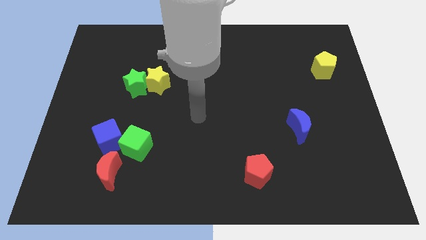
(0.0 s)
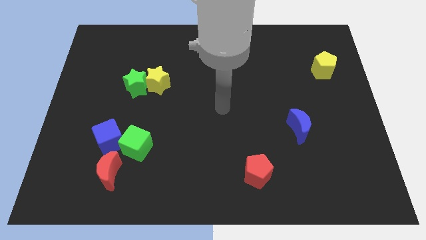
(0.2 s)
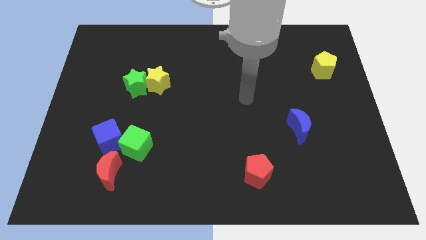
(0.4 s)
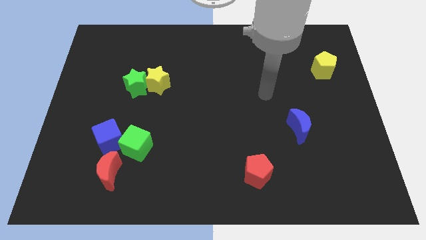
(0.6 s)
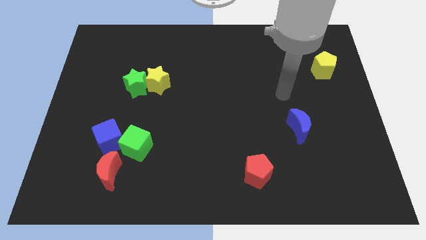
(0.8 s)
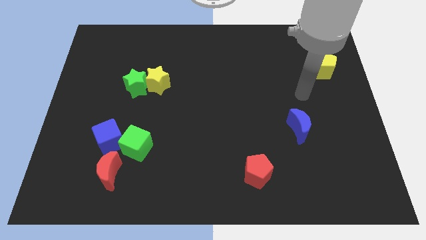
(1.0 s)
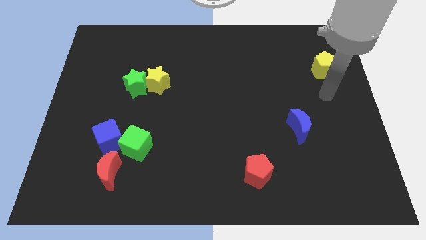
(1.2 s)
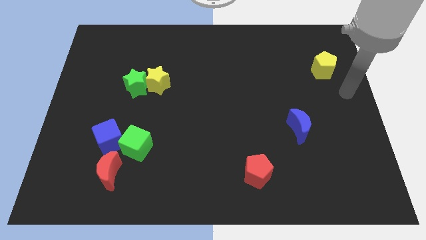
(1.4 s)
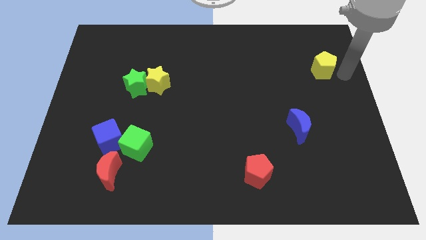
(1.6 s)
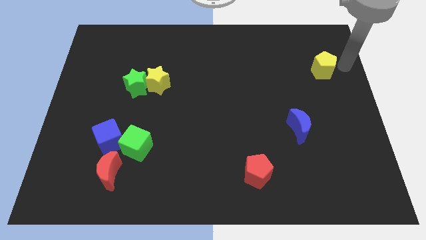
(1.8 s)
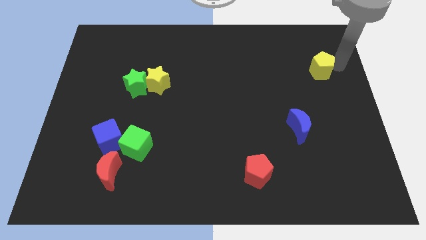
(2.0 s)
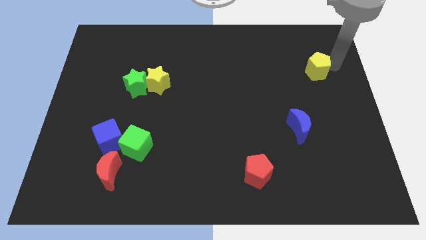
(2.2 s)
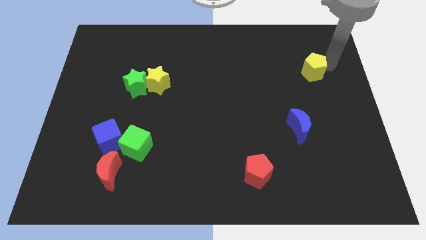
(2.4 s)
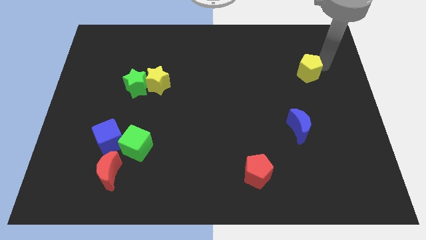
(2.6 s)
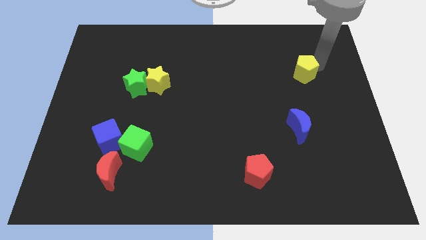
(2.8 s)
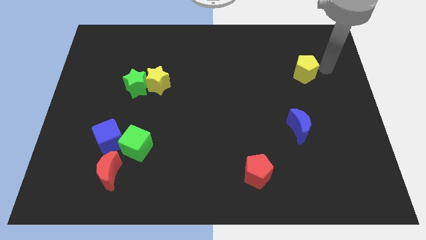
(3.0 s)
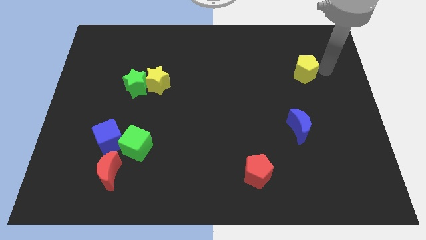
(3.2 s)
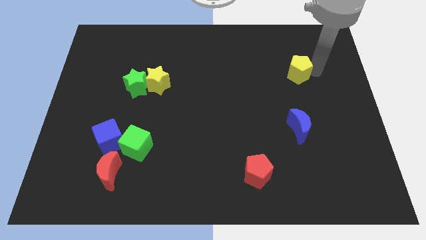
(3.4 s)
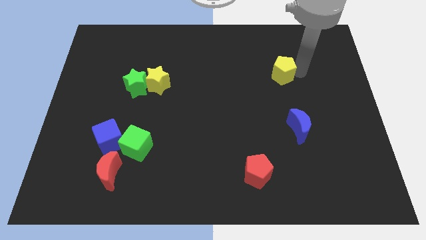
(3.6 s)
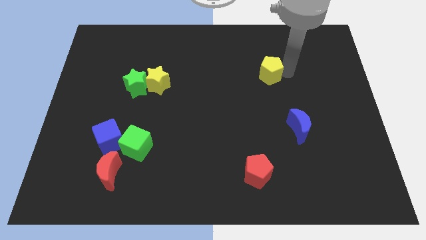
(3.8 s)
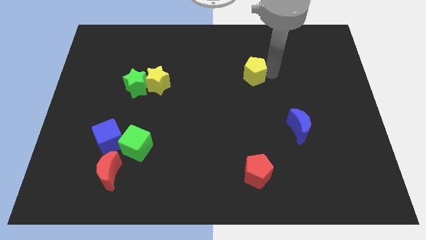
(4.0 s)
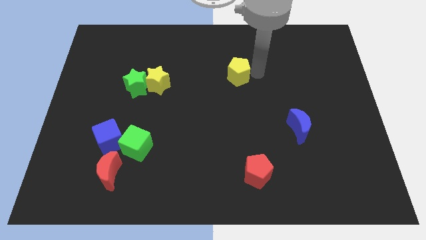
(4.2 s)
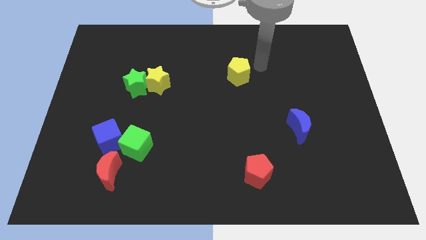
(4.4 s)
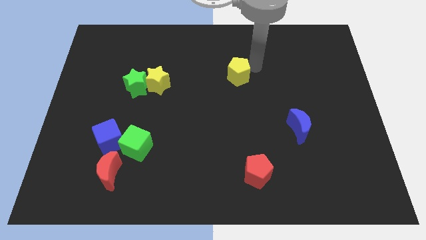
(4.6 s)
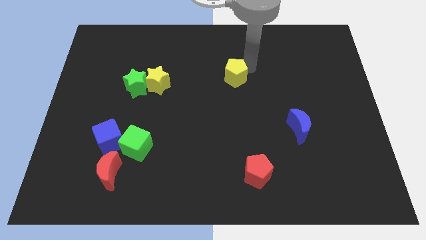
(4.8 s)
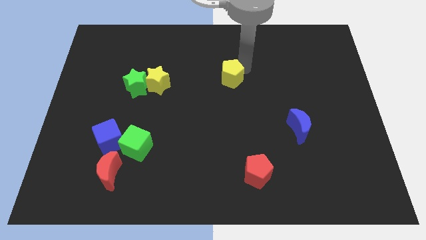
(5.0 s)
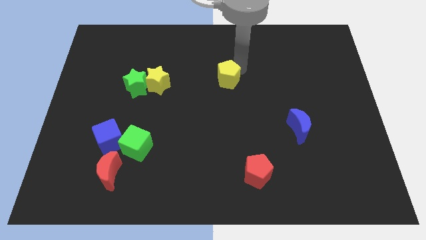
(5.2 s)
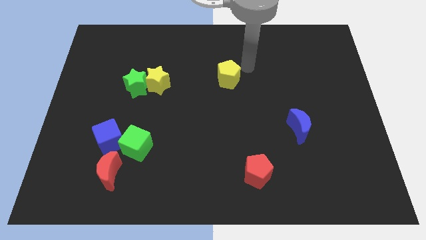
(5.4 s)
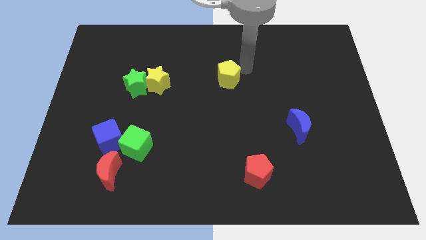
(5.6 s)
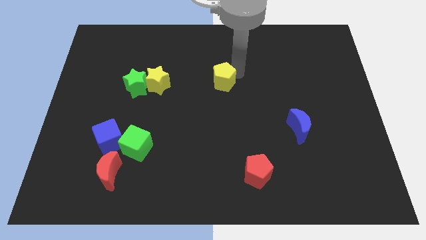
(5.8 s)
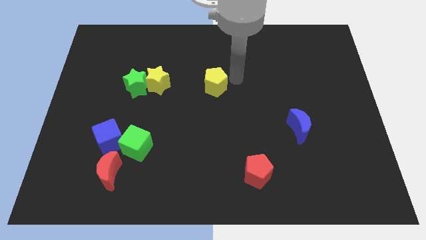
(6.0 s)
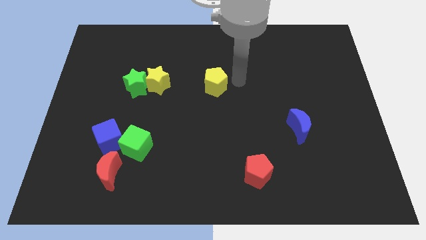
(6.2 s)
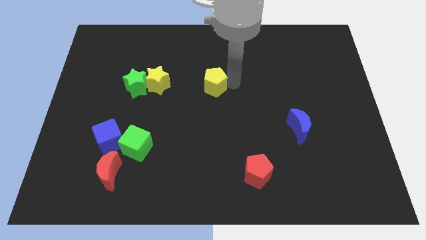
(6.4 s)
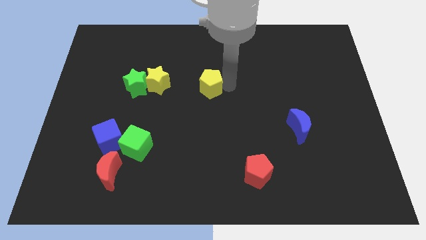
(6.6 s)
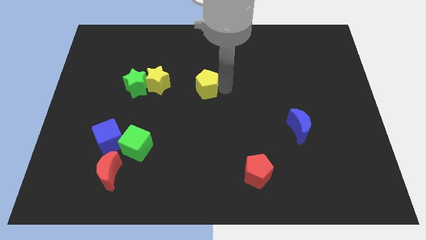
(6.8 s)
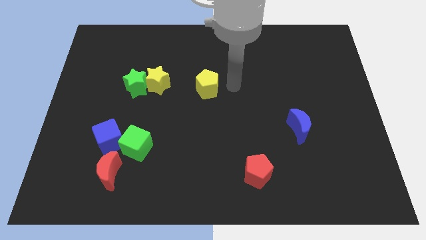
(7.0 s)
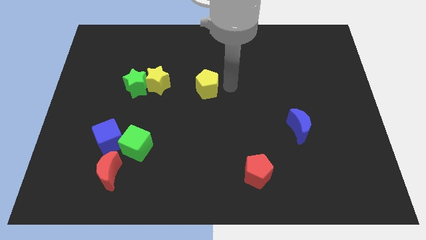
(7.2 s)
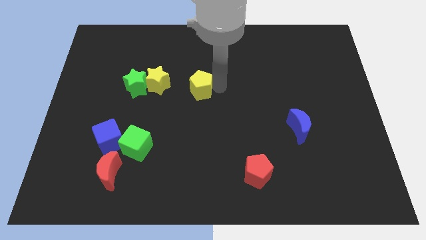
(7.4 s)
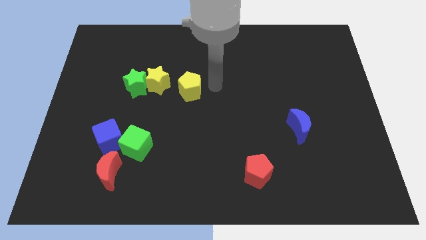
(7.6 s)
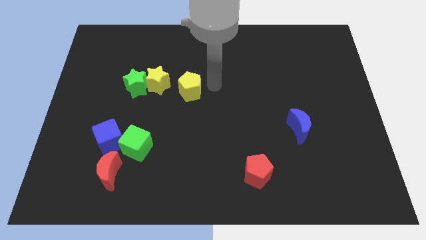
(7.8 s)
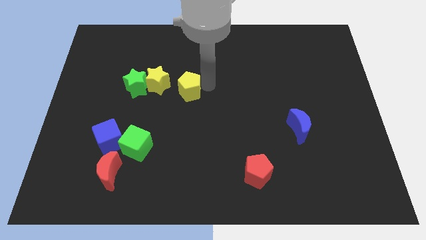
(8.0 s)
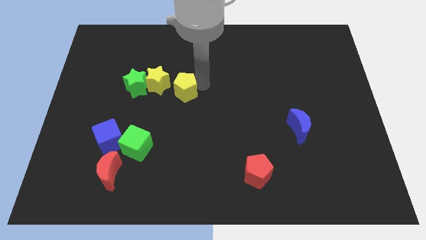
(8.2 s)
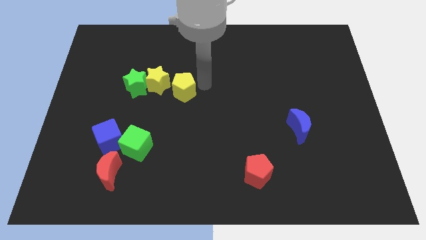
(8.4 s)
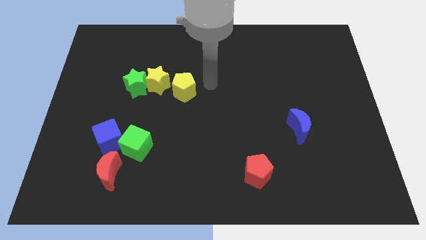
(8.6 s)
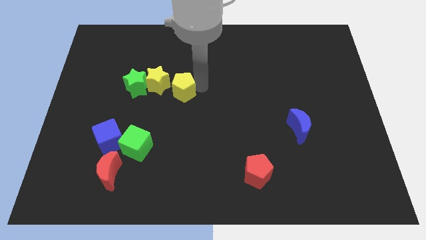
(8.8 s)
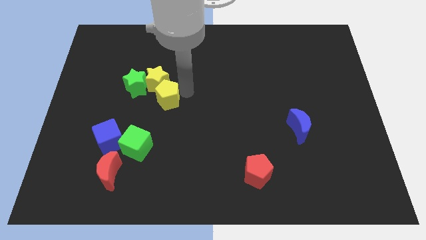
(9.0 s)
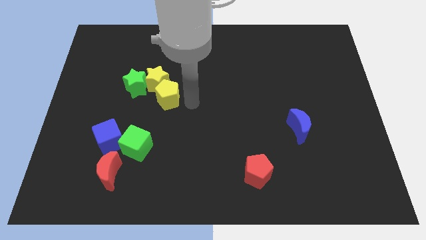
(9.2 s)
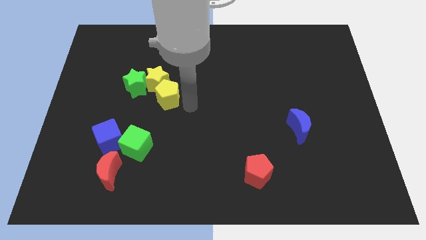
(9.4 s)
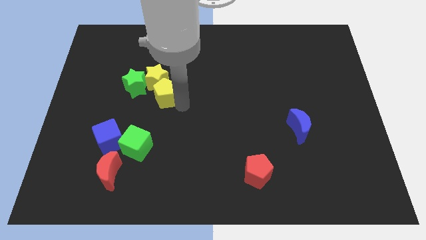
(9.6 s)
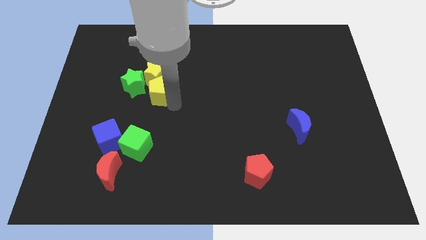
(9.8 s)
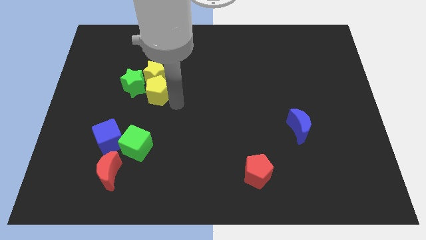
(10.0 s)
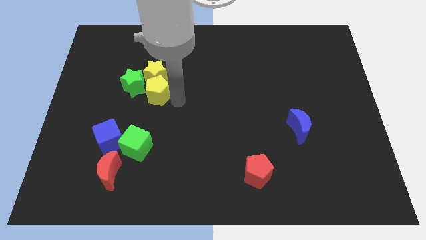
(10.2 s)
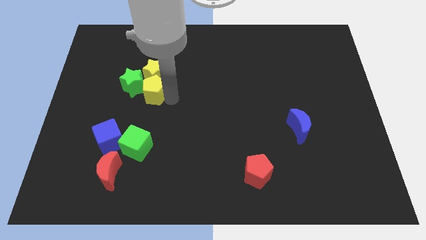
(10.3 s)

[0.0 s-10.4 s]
slide the yellow pentagon close to the green star

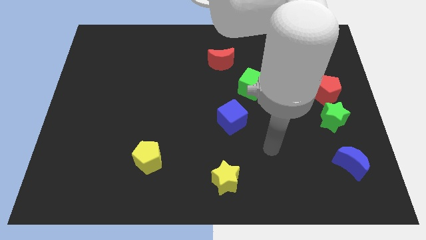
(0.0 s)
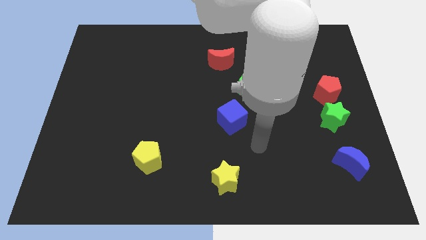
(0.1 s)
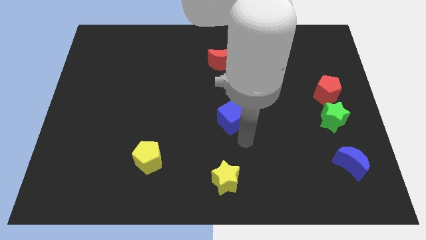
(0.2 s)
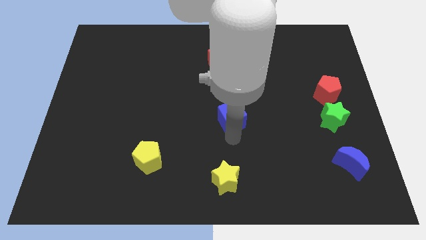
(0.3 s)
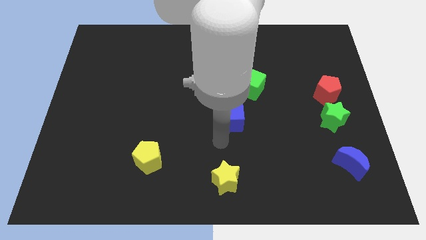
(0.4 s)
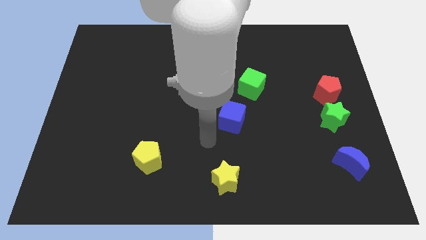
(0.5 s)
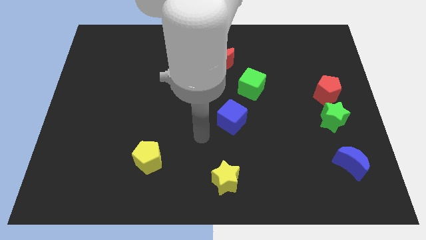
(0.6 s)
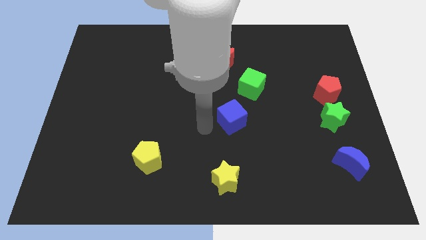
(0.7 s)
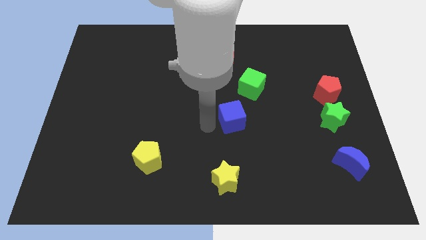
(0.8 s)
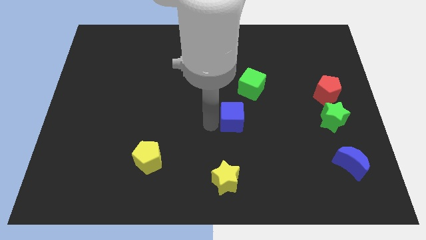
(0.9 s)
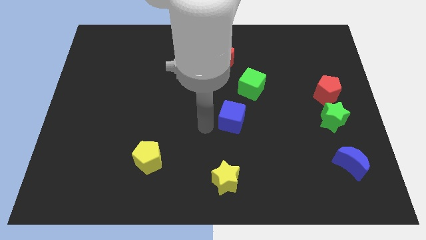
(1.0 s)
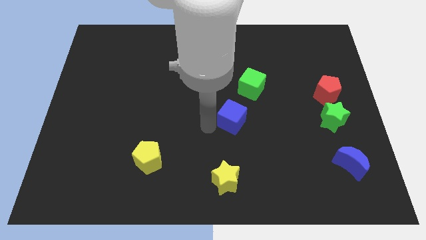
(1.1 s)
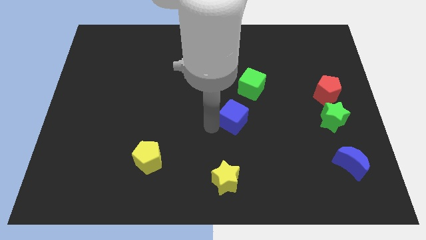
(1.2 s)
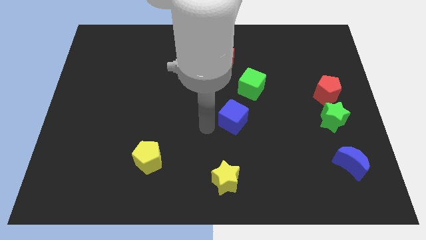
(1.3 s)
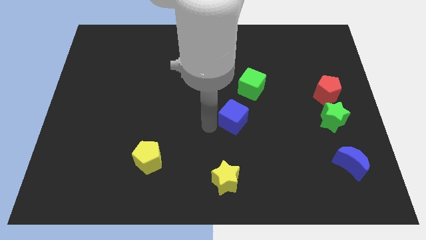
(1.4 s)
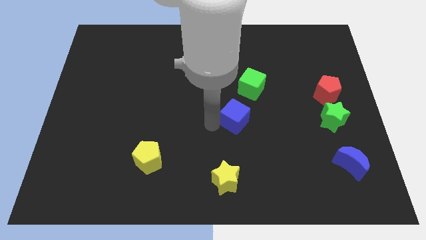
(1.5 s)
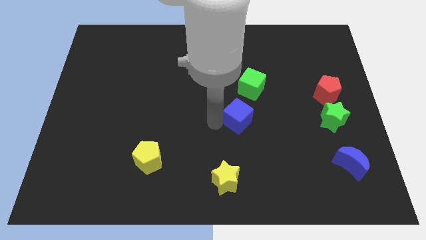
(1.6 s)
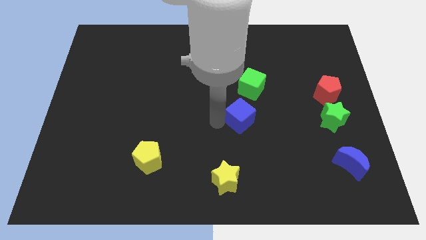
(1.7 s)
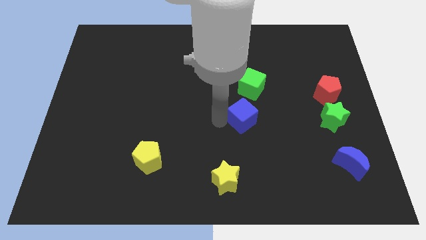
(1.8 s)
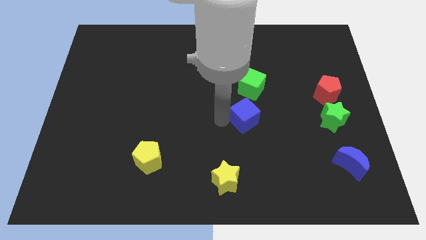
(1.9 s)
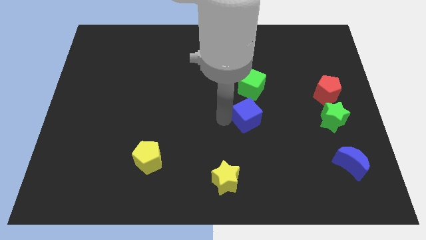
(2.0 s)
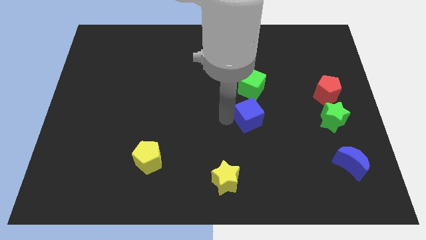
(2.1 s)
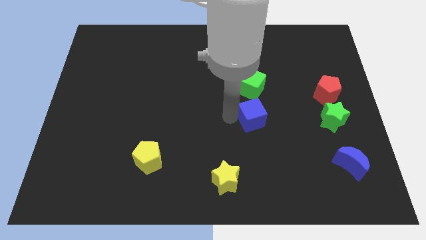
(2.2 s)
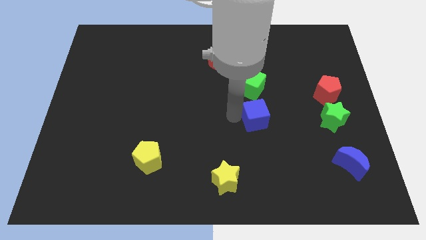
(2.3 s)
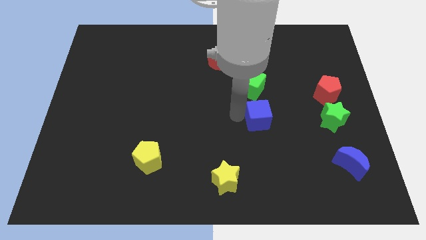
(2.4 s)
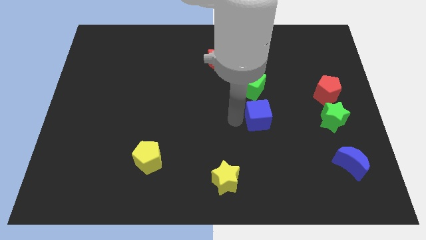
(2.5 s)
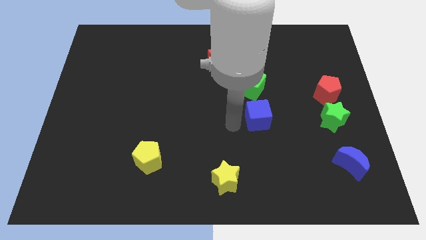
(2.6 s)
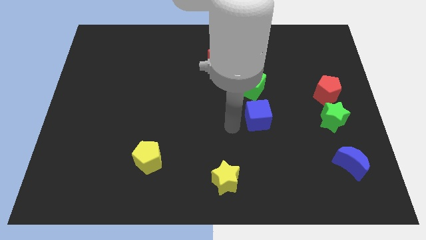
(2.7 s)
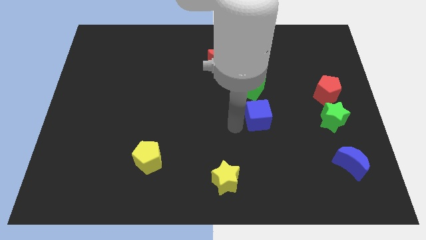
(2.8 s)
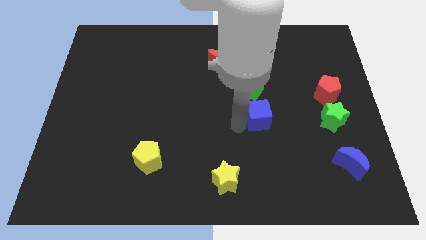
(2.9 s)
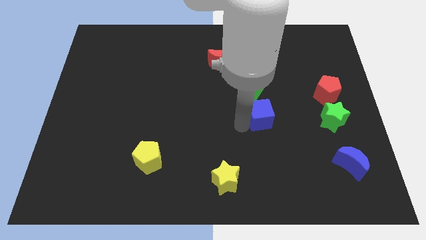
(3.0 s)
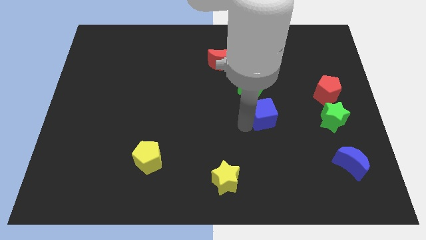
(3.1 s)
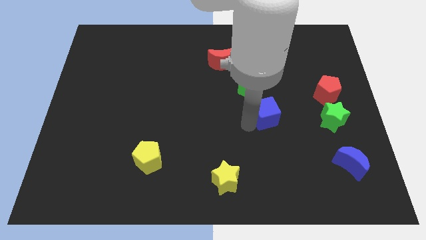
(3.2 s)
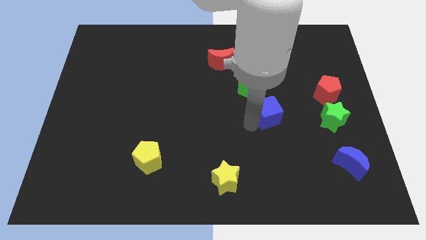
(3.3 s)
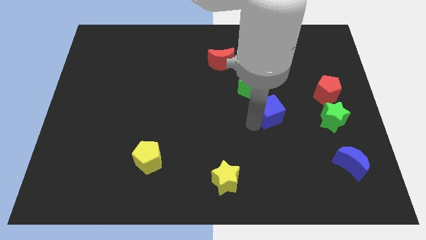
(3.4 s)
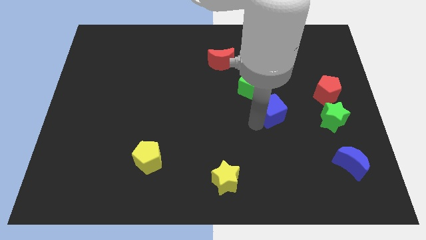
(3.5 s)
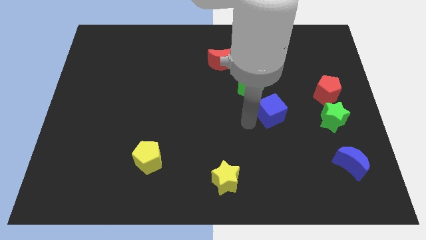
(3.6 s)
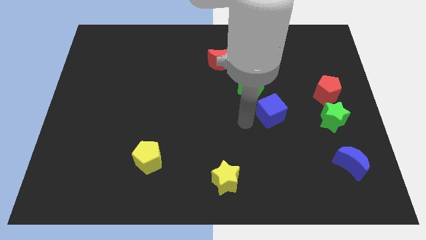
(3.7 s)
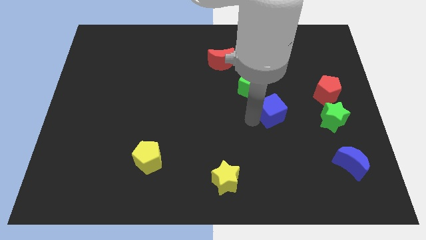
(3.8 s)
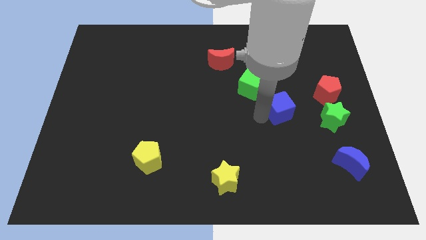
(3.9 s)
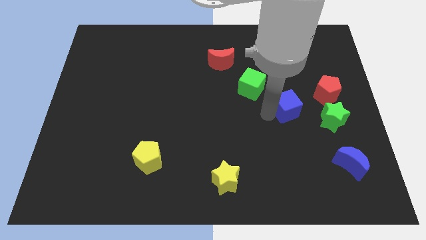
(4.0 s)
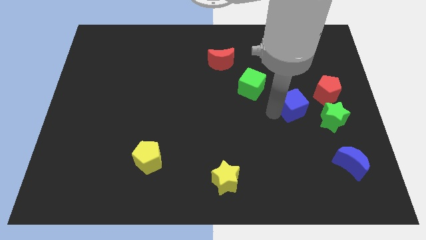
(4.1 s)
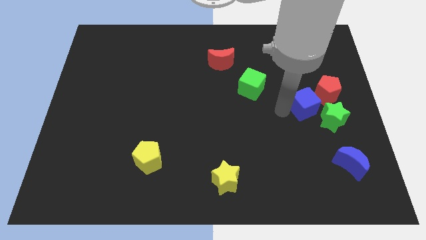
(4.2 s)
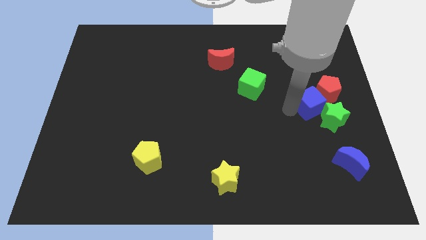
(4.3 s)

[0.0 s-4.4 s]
slide the blue cube towards the red pentagon
